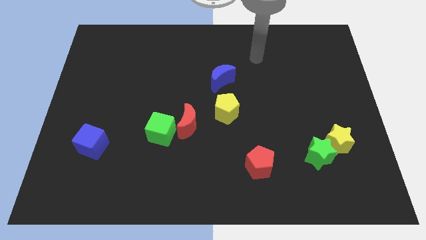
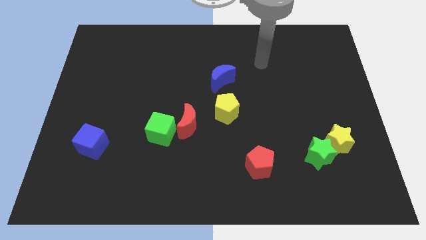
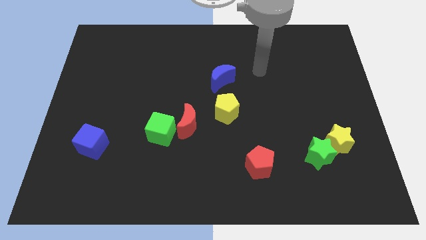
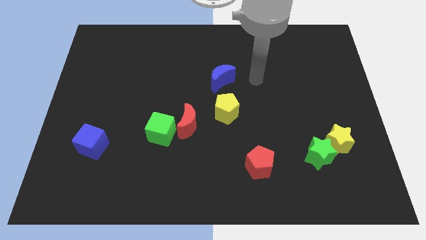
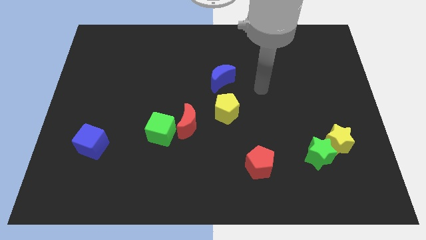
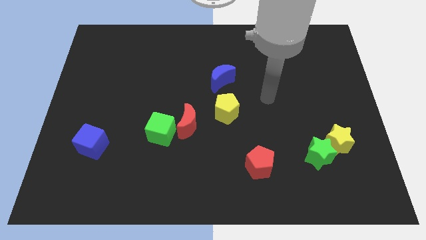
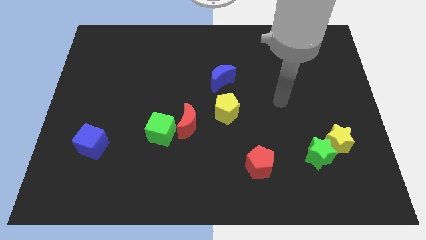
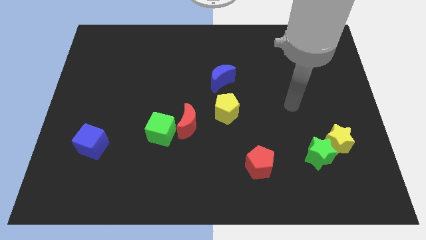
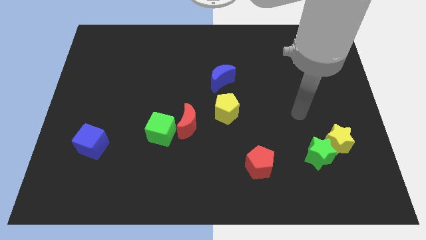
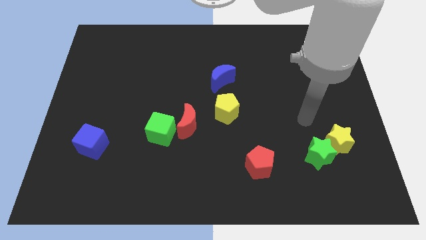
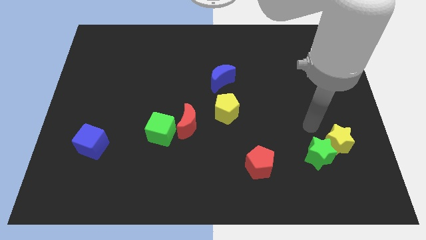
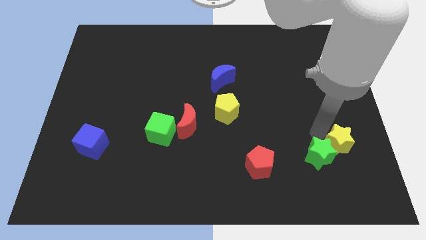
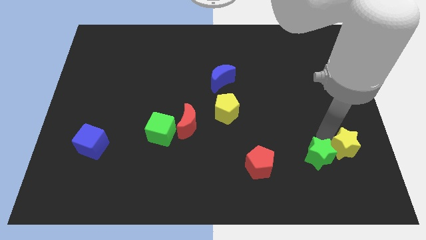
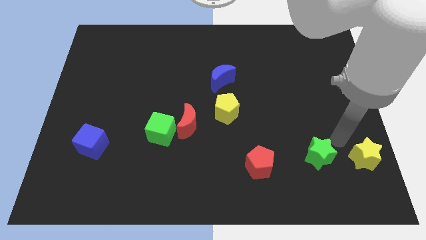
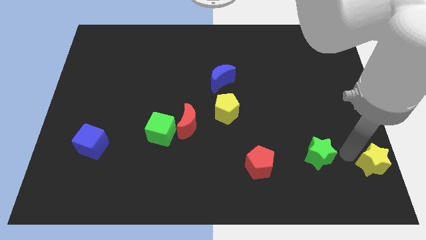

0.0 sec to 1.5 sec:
pull the green star apart from the yellow star

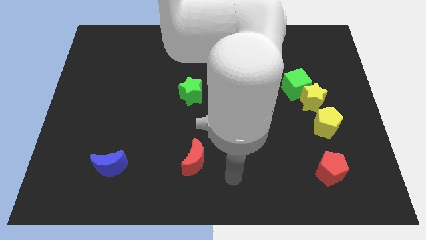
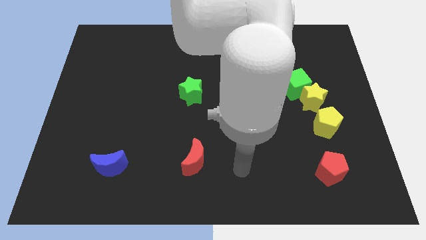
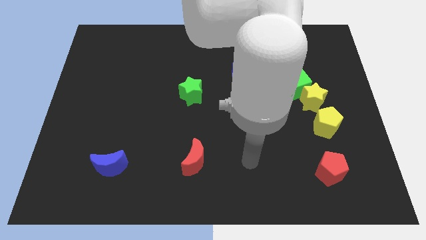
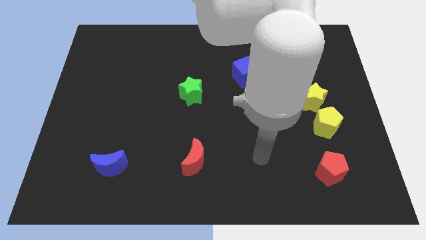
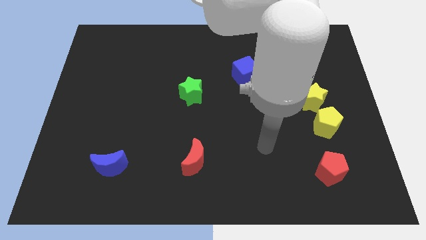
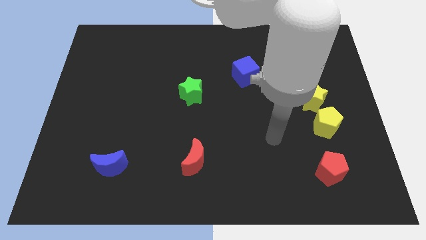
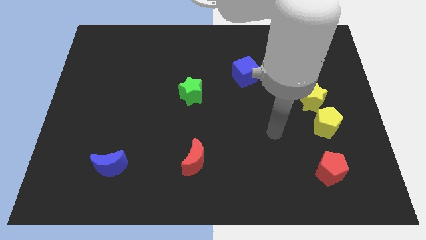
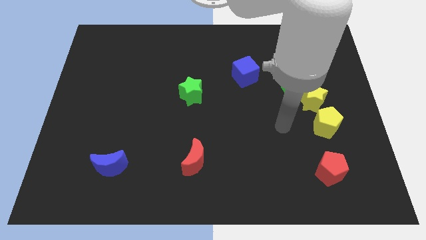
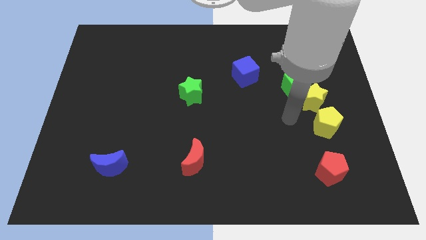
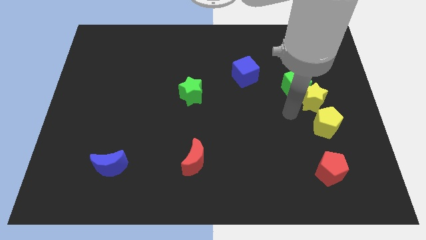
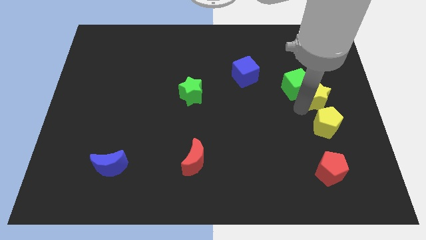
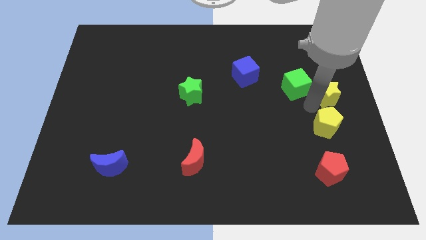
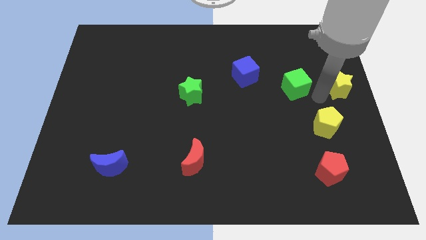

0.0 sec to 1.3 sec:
separate the green cube from the yellow star

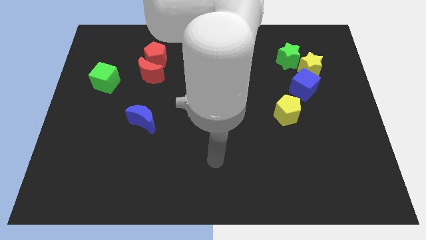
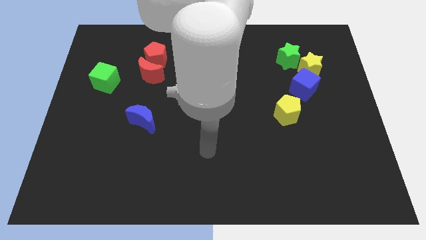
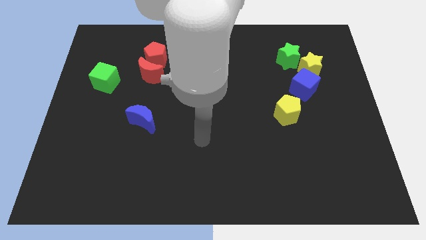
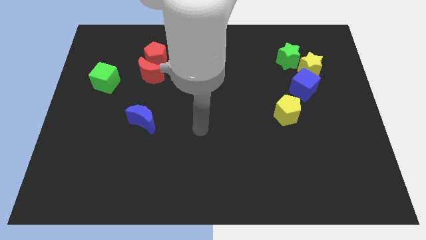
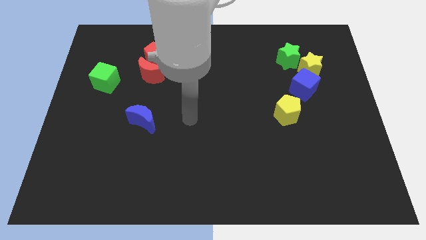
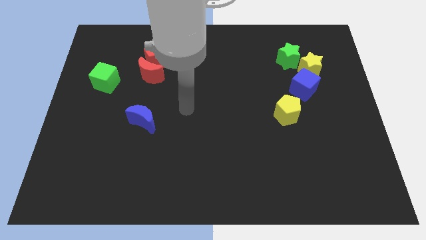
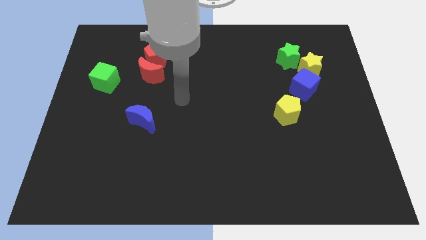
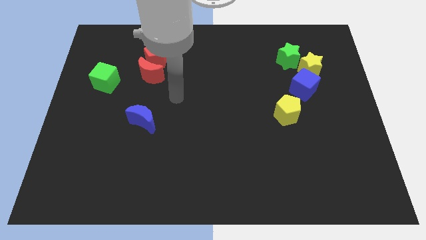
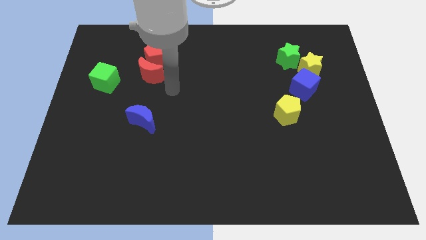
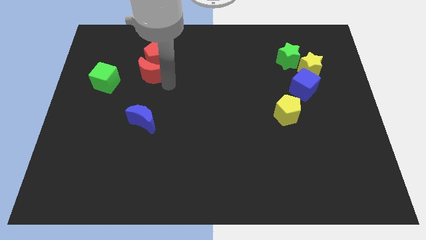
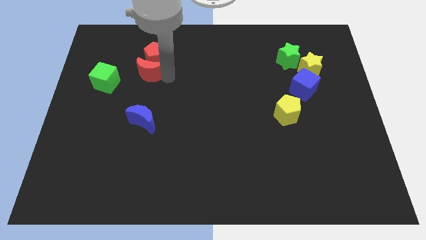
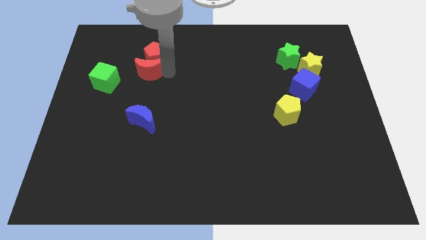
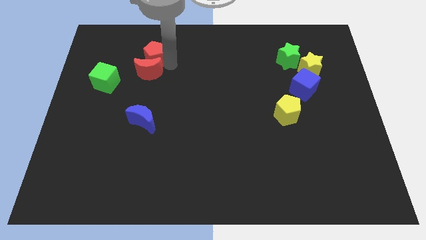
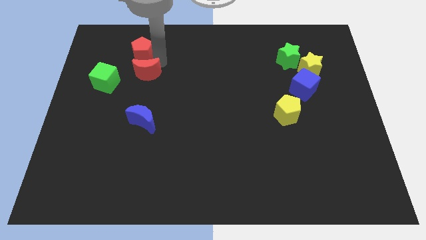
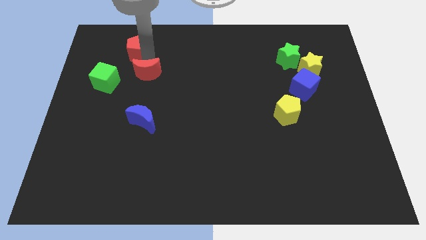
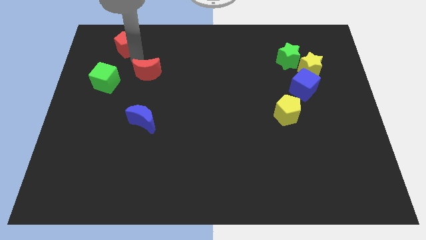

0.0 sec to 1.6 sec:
pull the red moon apart from the red pentagon

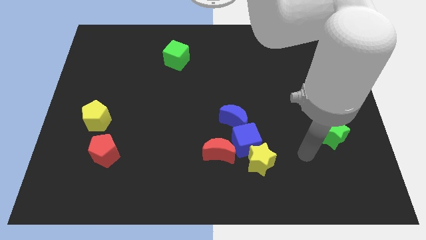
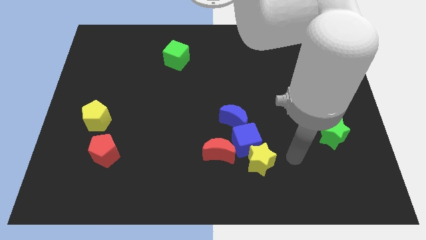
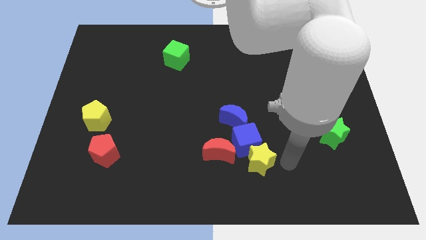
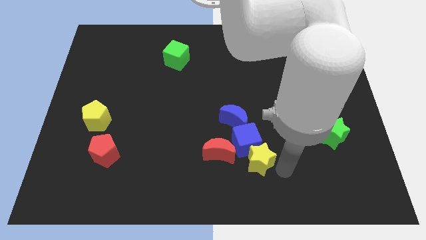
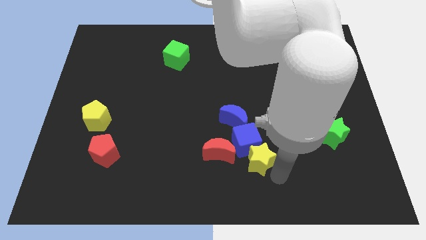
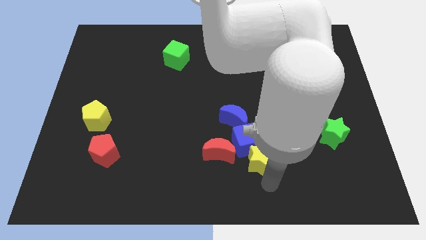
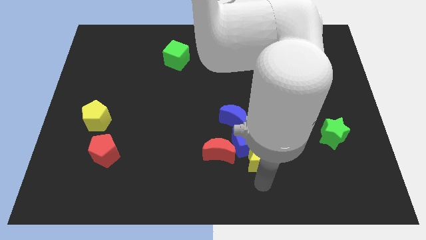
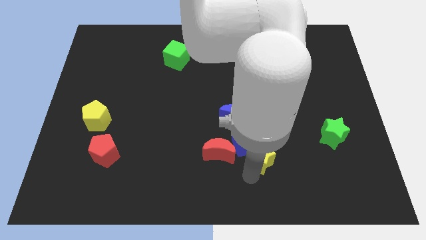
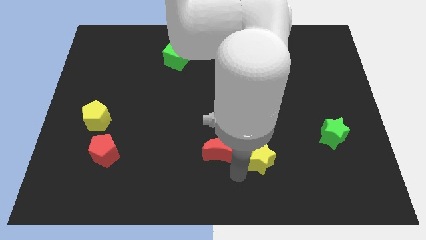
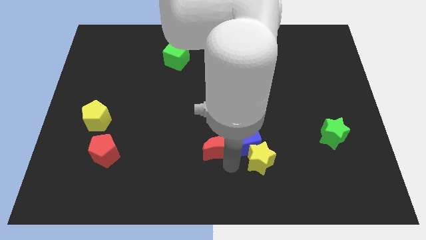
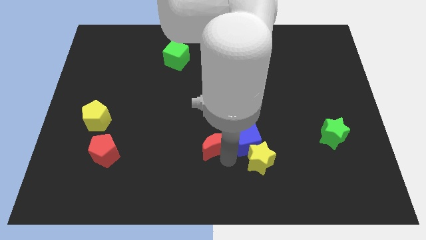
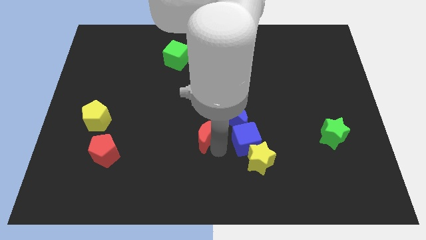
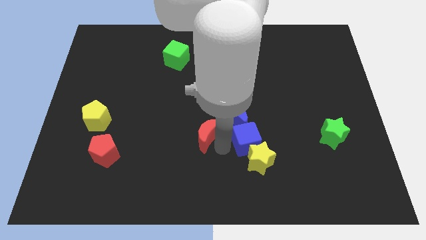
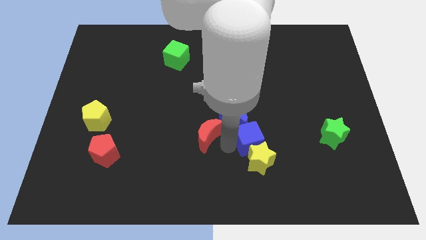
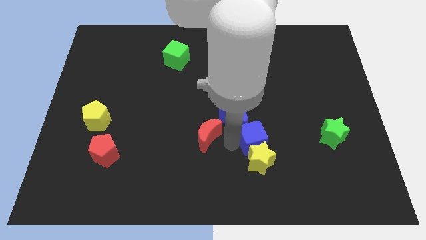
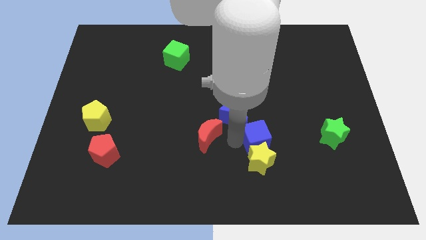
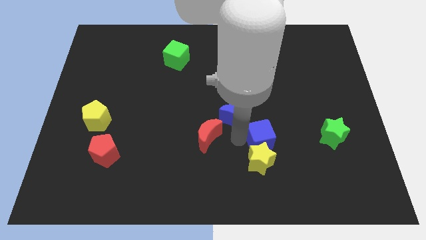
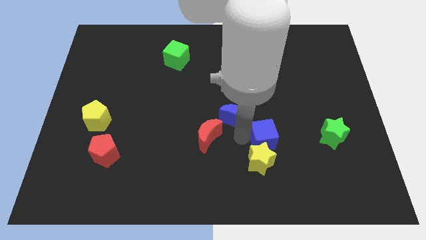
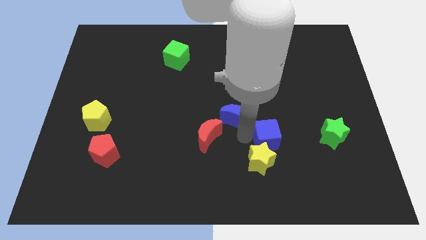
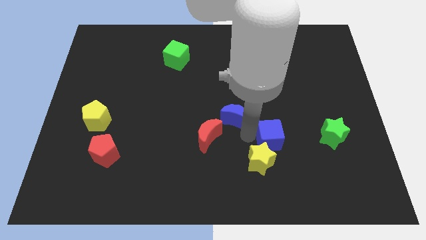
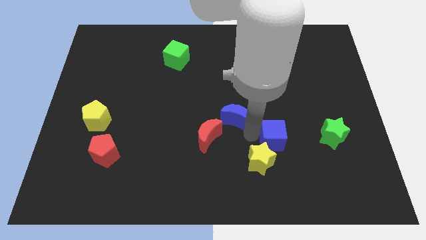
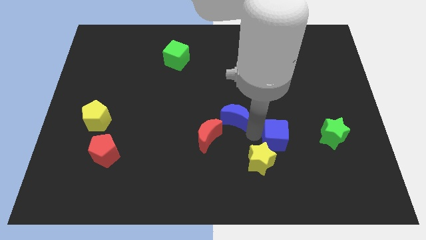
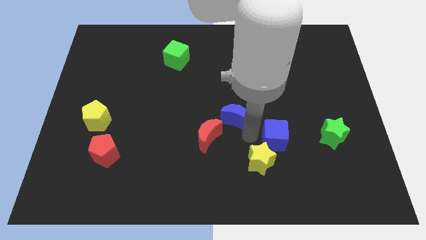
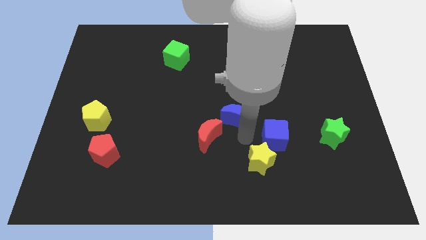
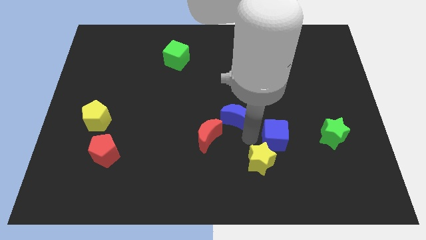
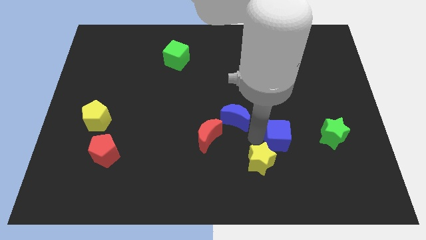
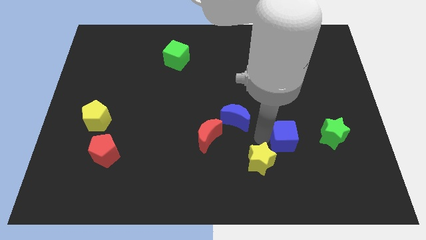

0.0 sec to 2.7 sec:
move the blue cube away from the group

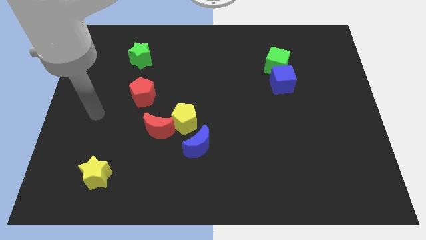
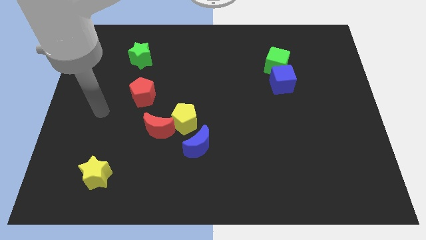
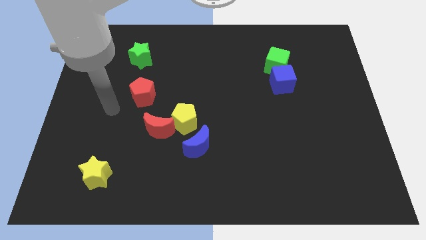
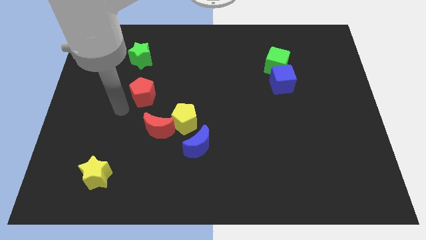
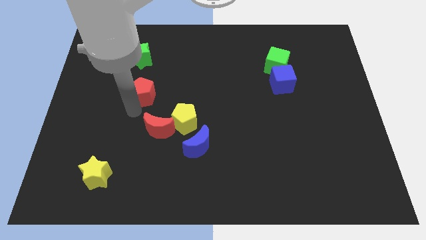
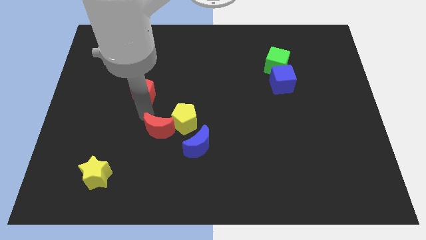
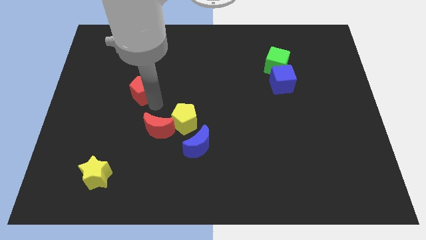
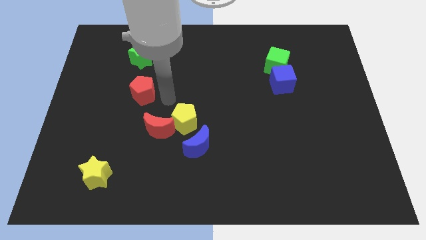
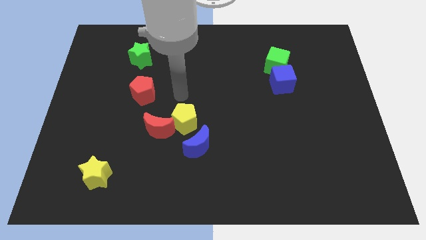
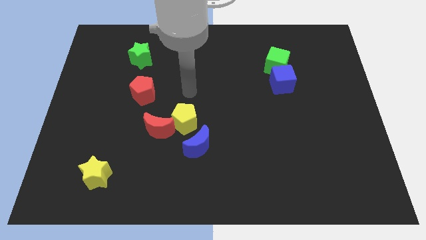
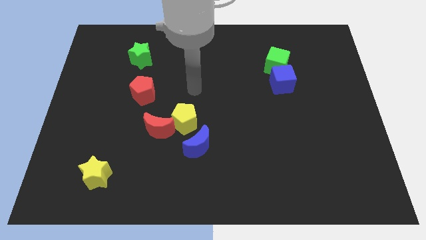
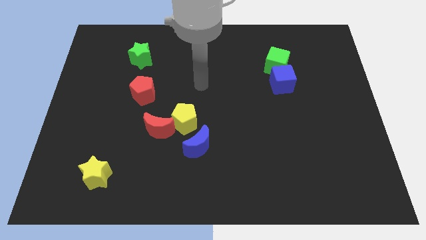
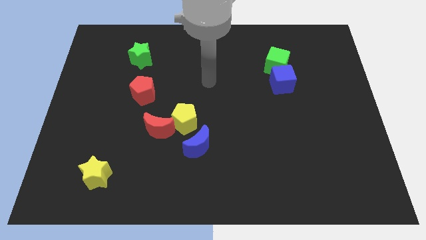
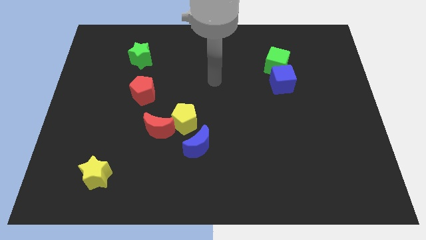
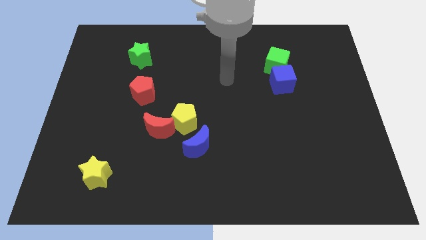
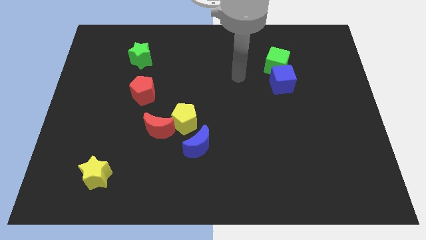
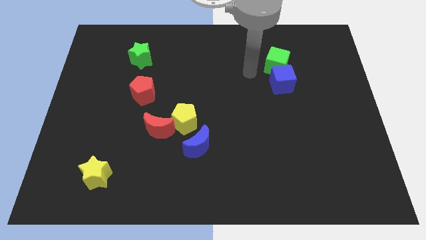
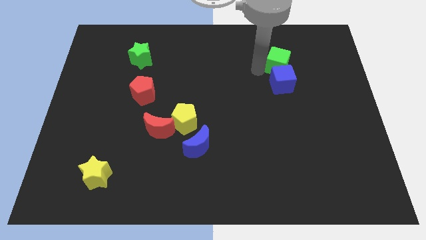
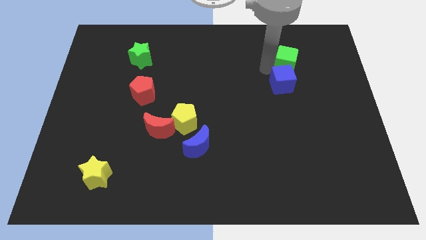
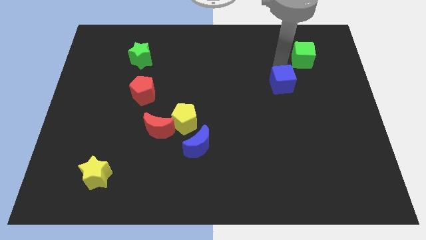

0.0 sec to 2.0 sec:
pull the blue cube apart from the green cube

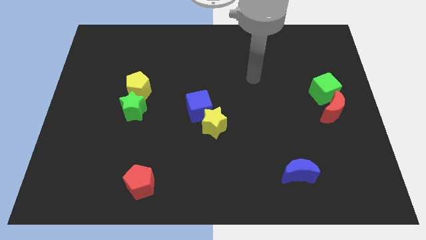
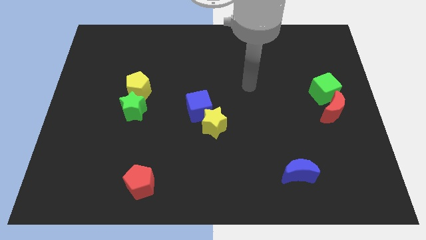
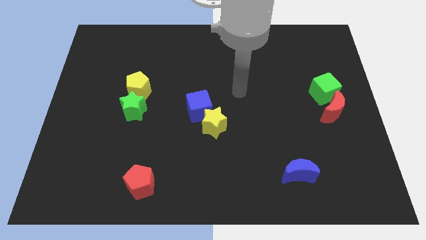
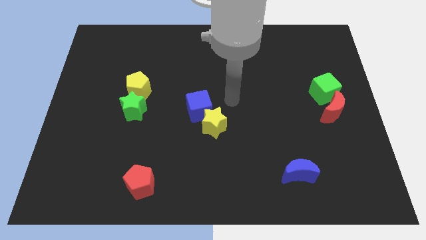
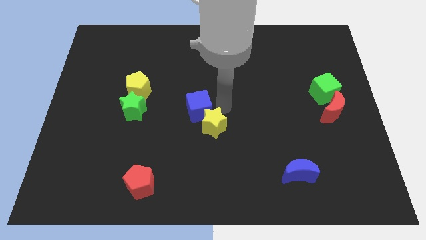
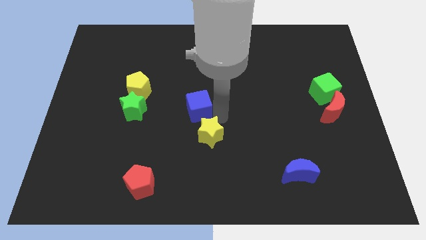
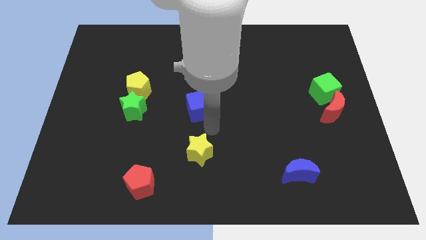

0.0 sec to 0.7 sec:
pull the blue cube apart from the yellow star
